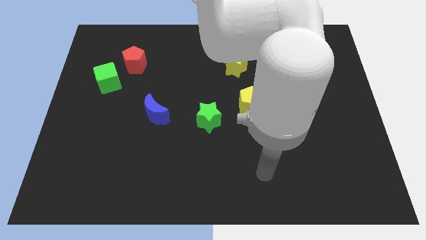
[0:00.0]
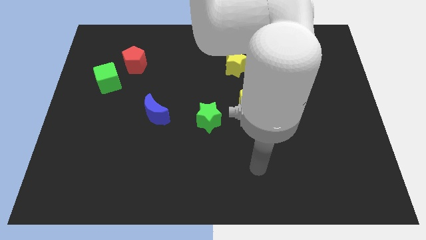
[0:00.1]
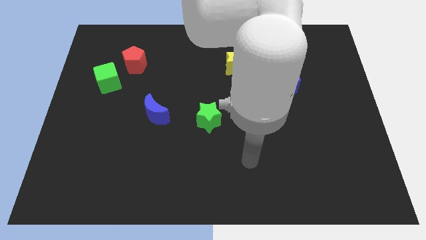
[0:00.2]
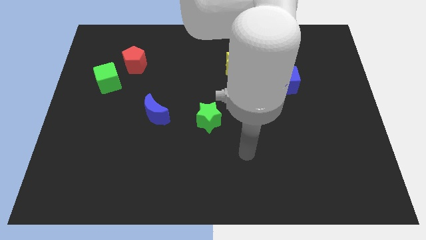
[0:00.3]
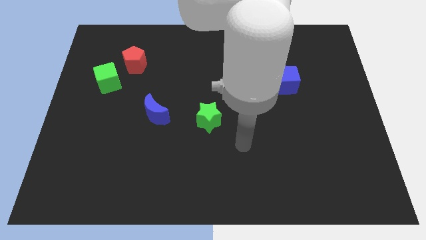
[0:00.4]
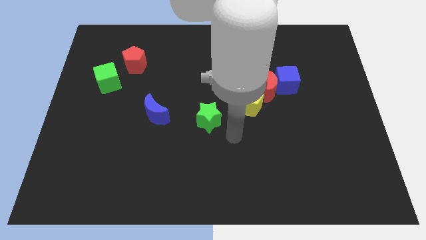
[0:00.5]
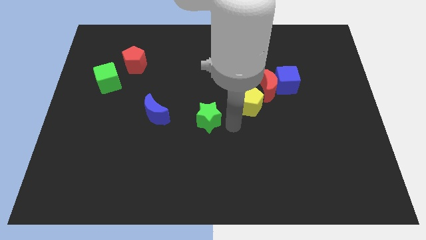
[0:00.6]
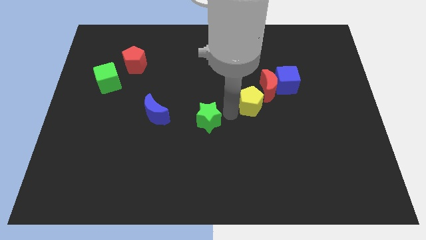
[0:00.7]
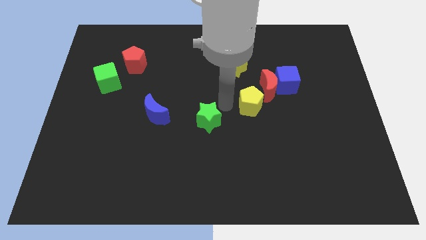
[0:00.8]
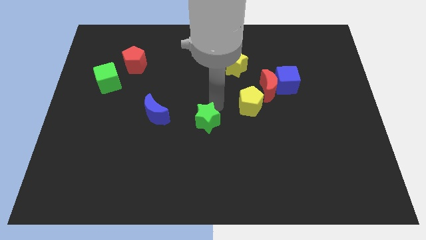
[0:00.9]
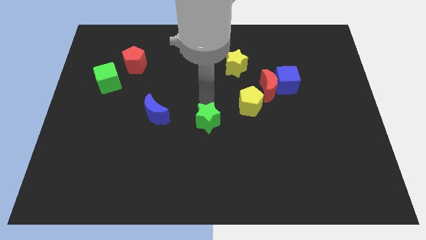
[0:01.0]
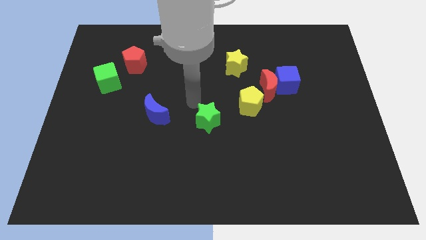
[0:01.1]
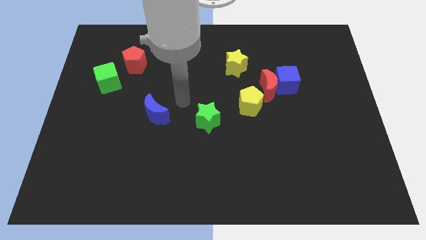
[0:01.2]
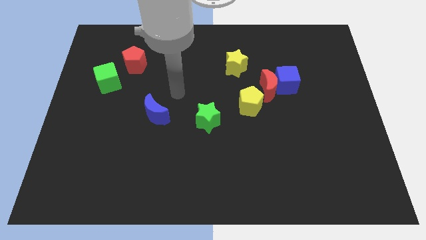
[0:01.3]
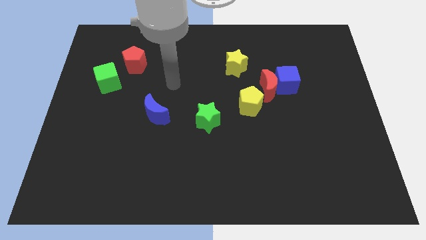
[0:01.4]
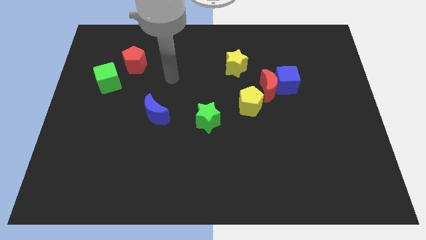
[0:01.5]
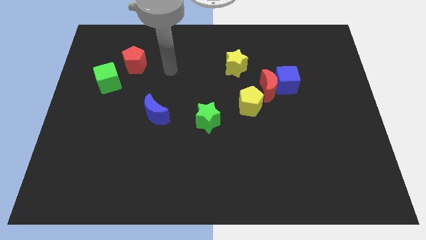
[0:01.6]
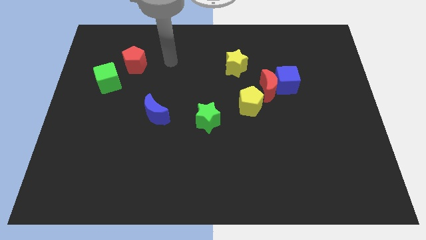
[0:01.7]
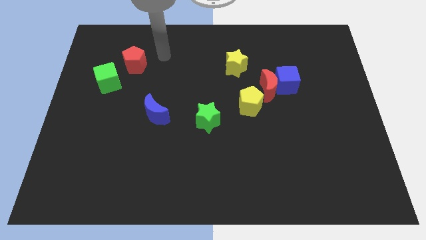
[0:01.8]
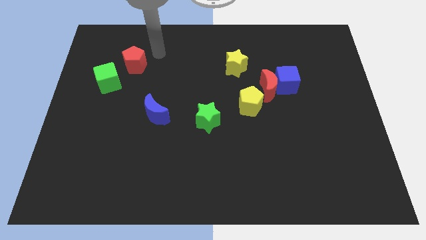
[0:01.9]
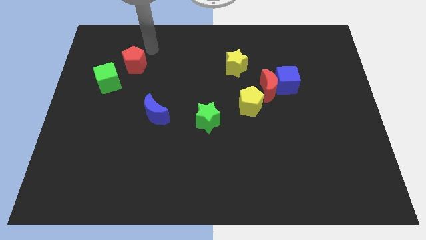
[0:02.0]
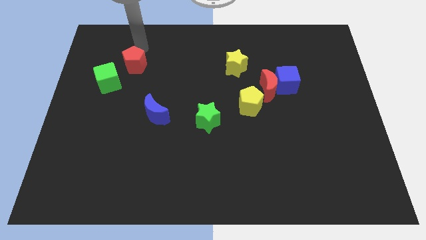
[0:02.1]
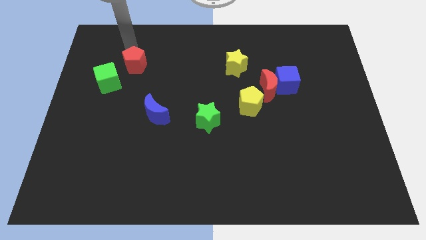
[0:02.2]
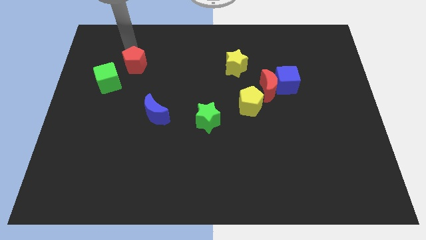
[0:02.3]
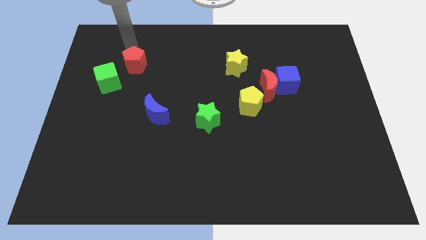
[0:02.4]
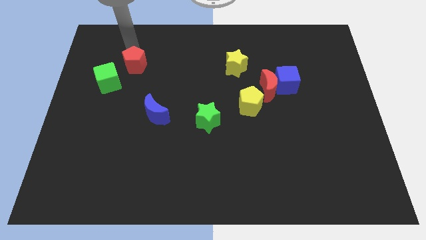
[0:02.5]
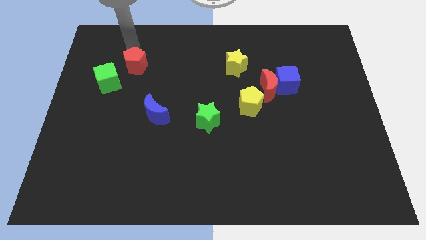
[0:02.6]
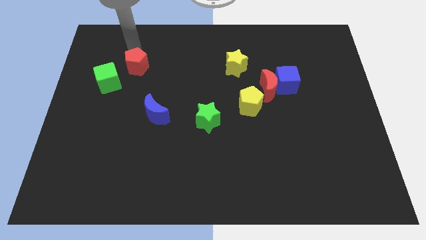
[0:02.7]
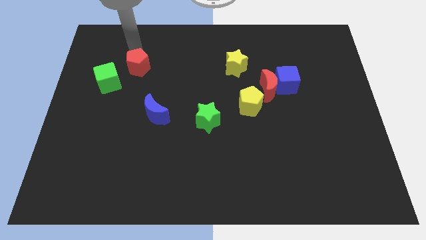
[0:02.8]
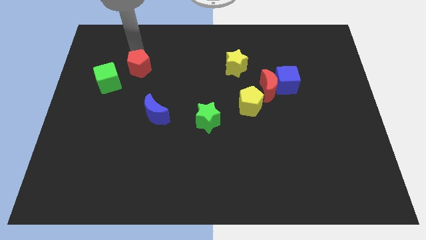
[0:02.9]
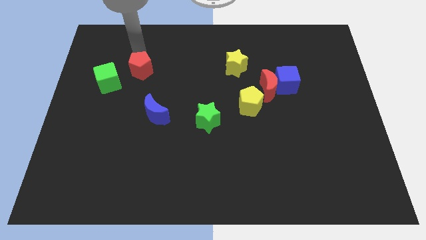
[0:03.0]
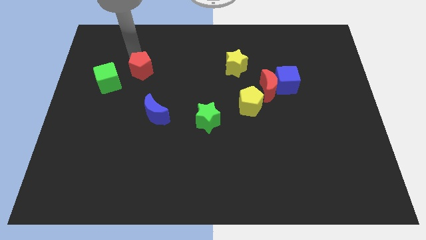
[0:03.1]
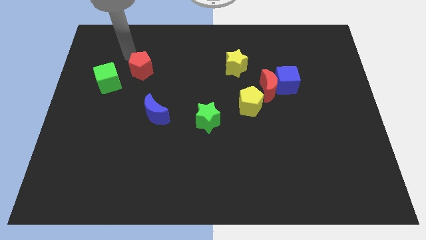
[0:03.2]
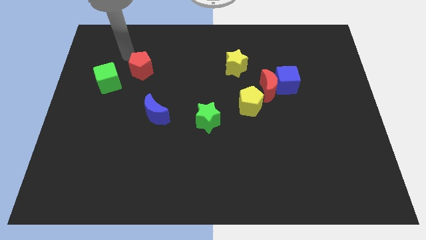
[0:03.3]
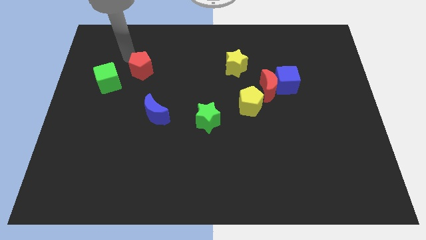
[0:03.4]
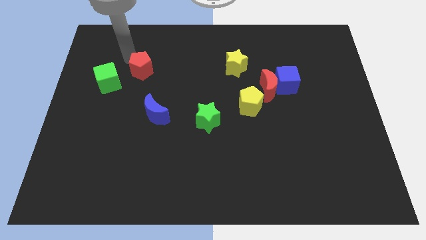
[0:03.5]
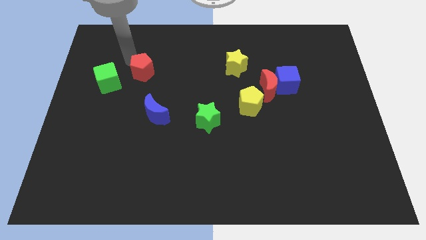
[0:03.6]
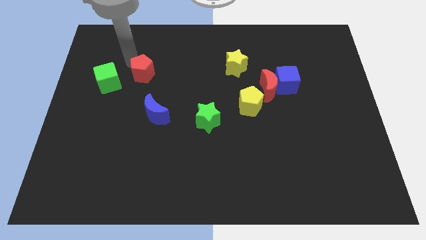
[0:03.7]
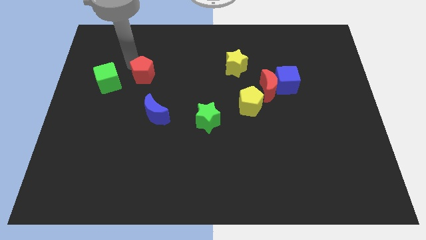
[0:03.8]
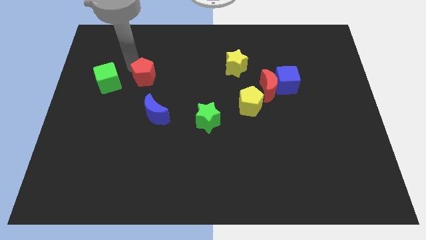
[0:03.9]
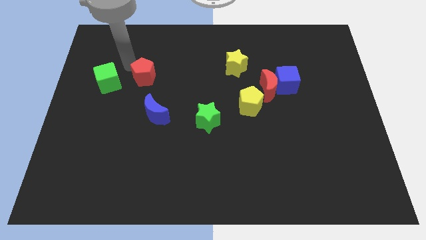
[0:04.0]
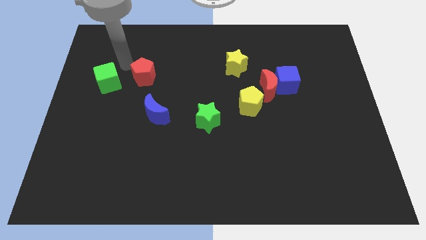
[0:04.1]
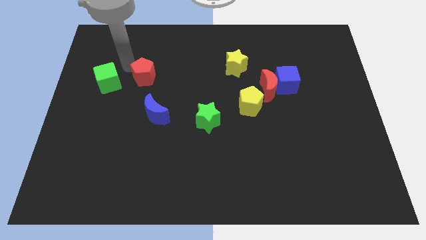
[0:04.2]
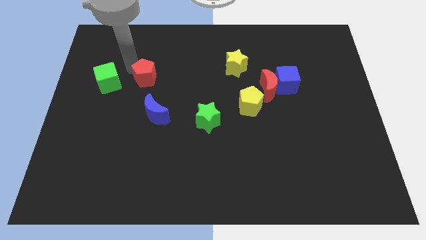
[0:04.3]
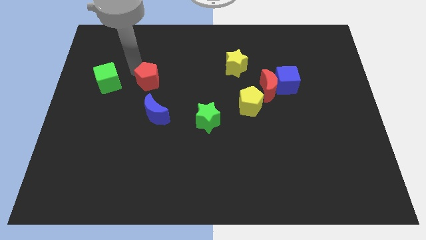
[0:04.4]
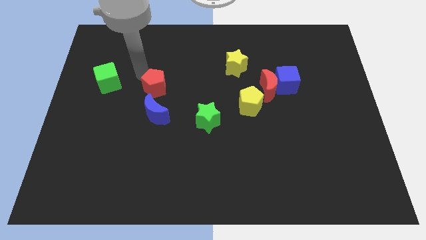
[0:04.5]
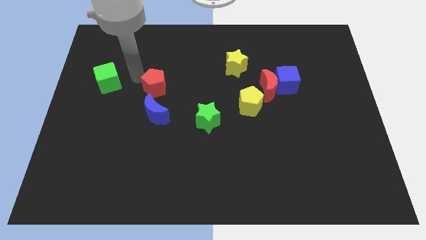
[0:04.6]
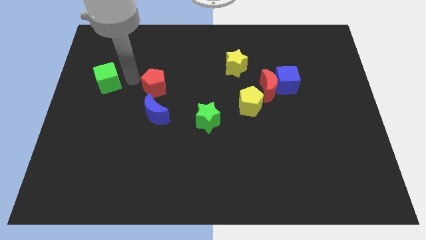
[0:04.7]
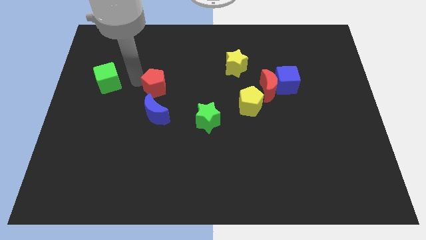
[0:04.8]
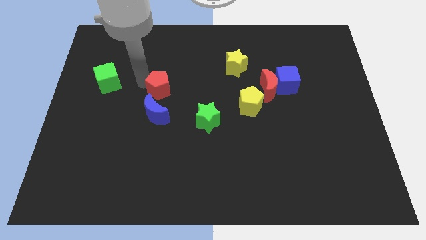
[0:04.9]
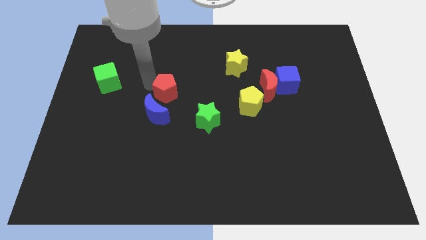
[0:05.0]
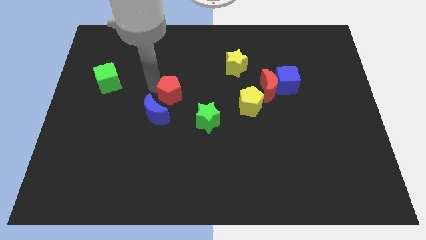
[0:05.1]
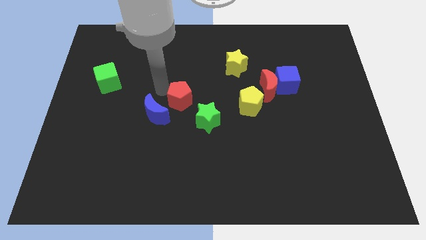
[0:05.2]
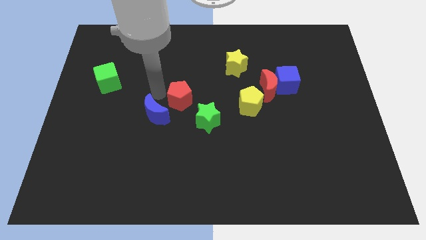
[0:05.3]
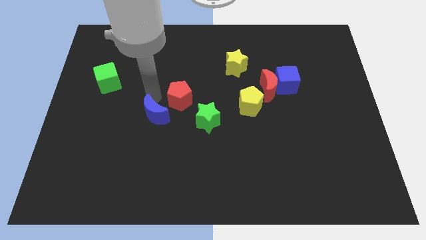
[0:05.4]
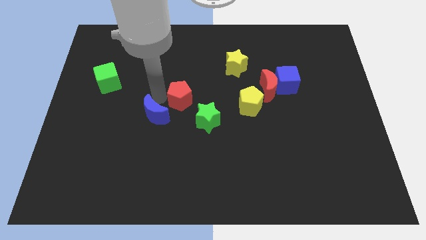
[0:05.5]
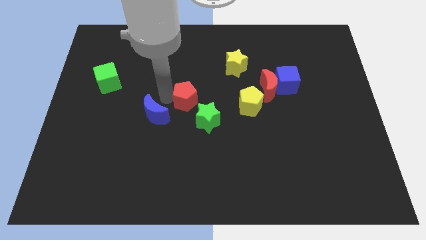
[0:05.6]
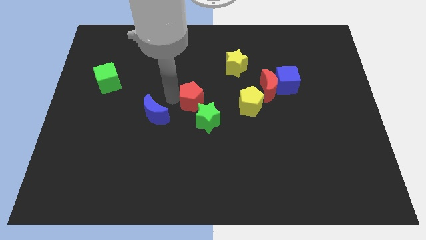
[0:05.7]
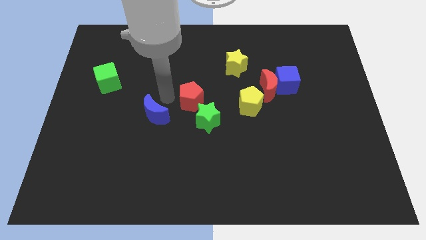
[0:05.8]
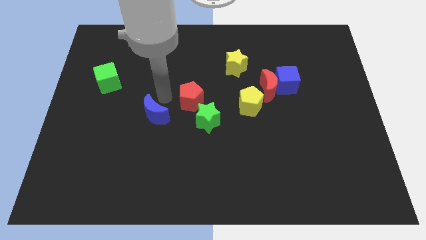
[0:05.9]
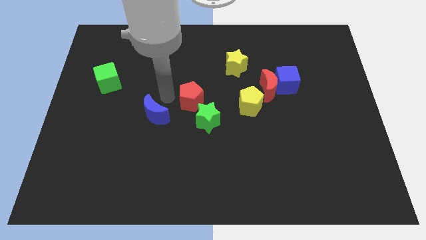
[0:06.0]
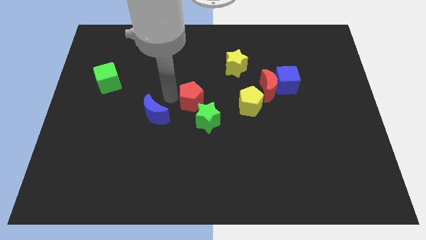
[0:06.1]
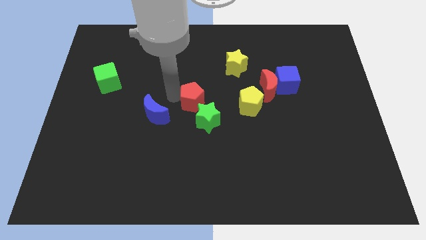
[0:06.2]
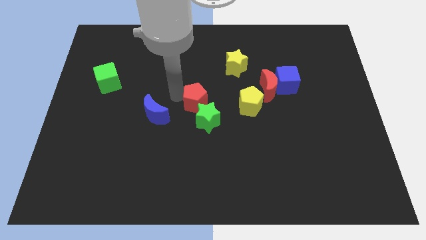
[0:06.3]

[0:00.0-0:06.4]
push the red pentagon down and then right

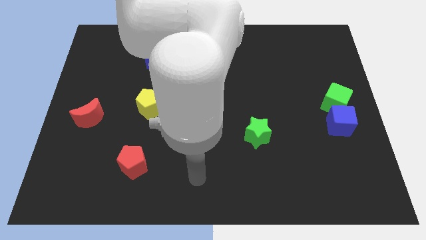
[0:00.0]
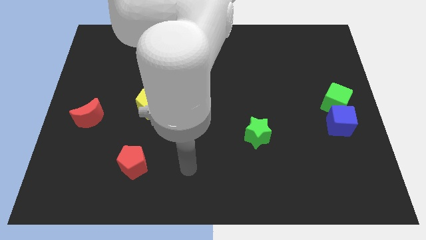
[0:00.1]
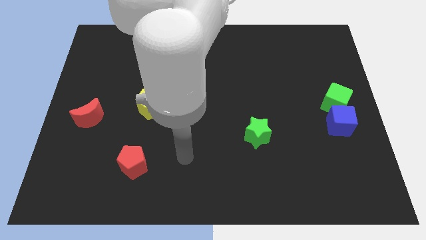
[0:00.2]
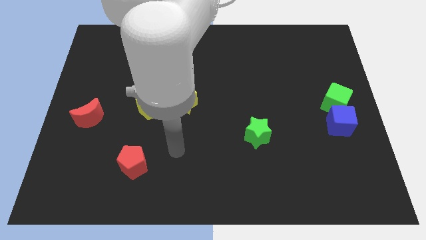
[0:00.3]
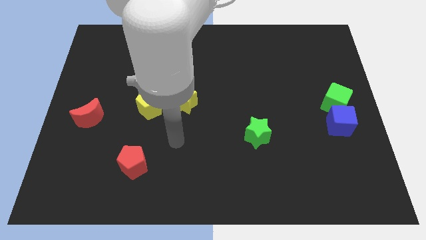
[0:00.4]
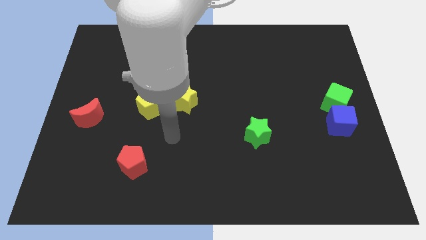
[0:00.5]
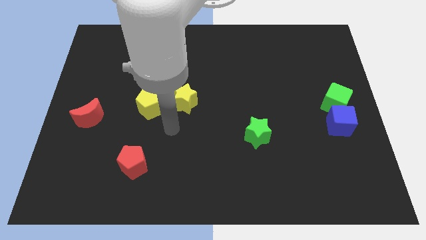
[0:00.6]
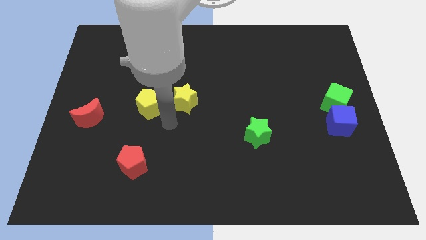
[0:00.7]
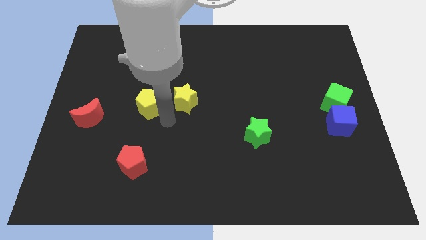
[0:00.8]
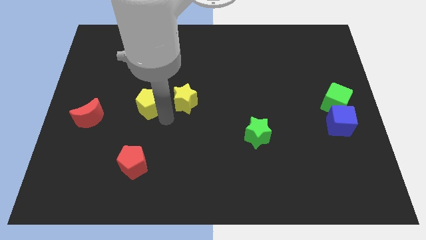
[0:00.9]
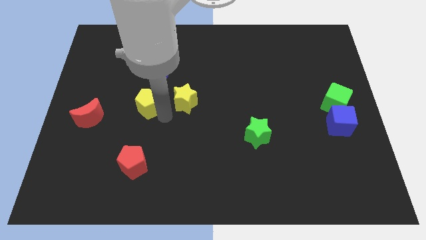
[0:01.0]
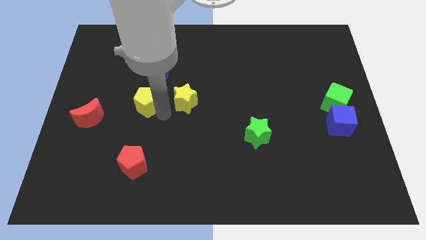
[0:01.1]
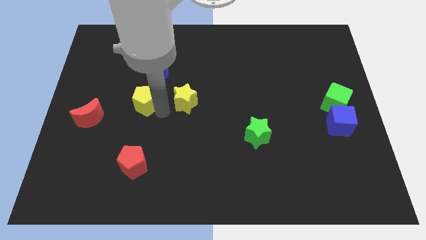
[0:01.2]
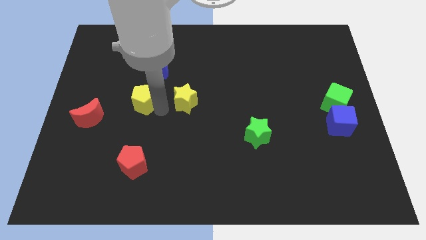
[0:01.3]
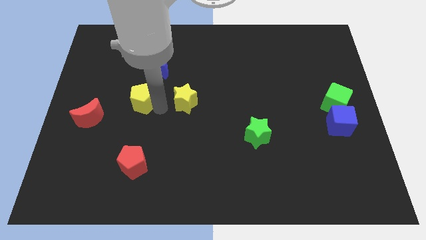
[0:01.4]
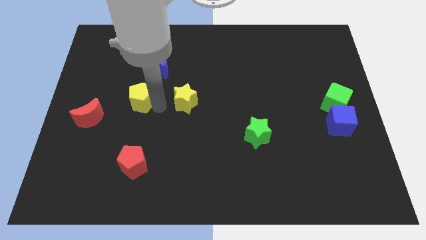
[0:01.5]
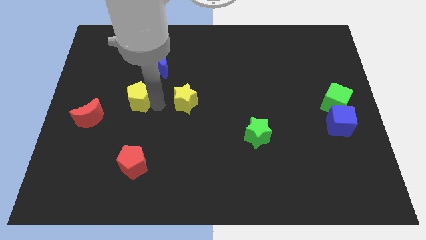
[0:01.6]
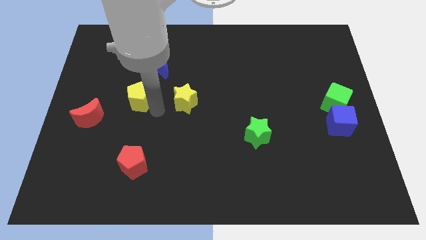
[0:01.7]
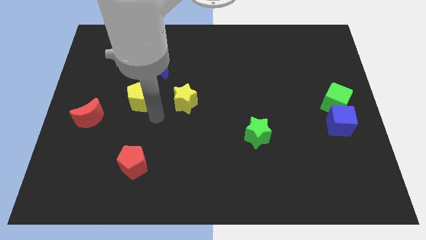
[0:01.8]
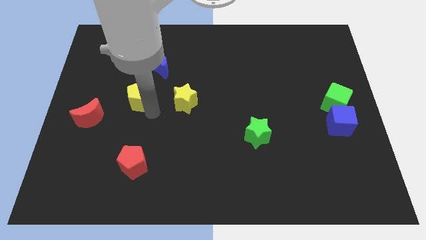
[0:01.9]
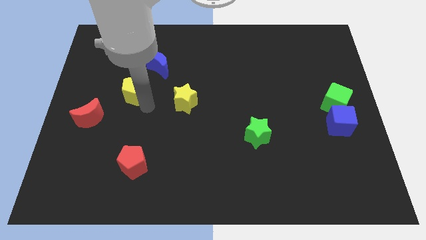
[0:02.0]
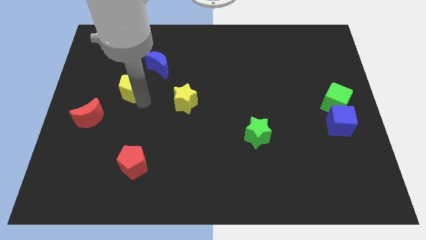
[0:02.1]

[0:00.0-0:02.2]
slide the yellow pentagon upwards and left a little
